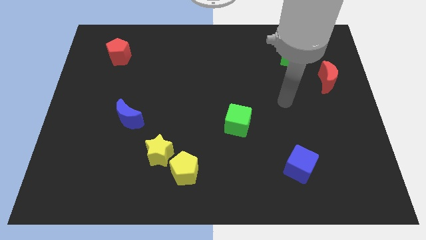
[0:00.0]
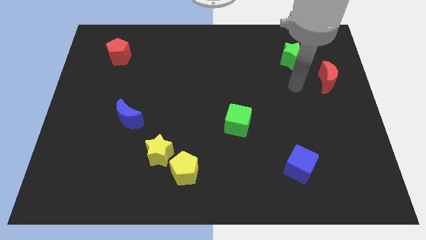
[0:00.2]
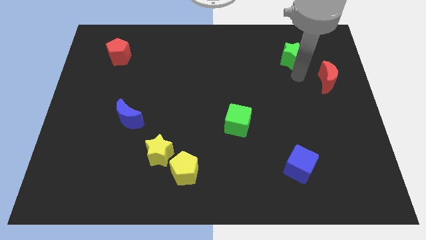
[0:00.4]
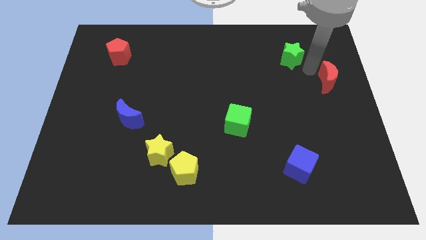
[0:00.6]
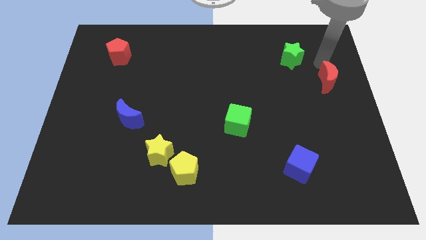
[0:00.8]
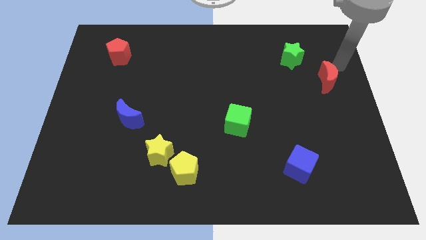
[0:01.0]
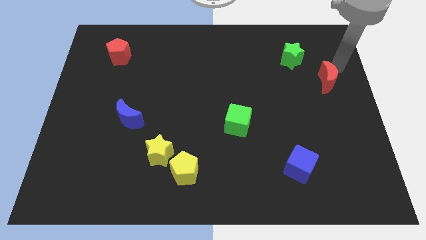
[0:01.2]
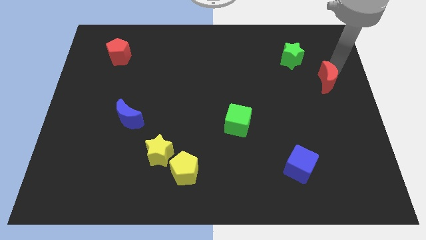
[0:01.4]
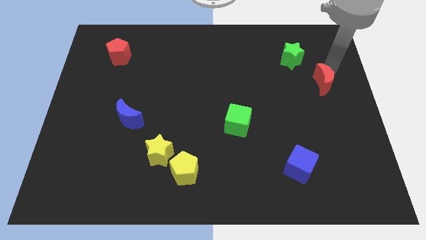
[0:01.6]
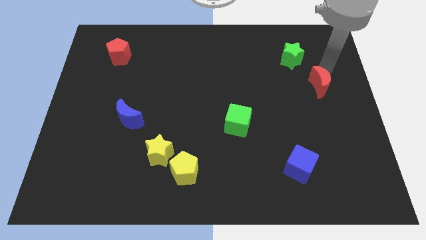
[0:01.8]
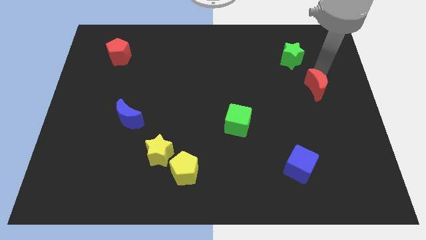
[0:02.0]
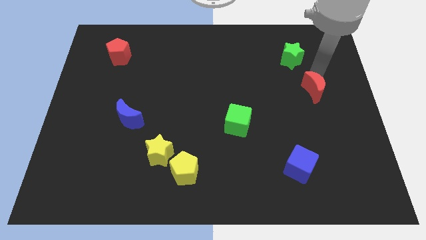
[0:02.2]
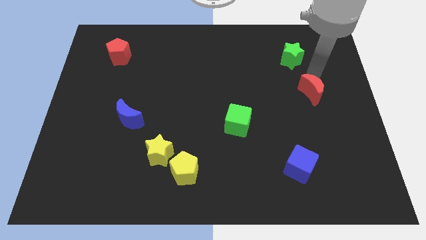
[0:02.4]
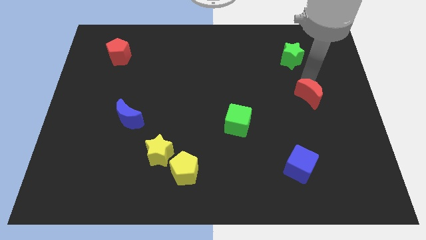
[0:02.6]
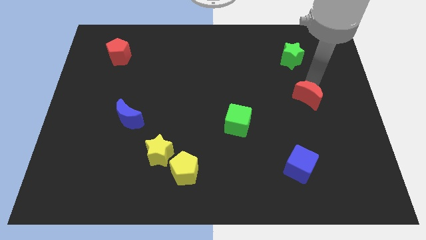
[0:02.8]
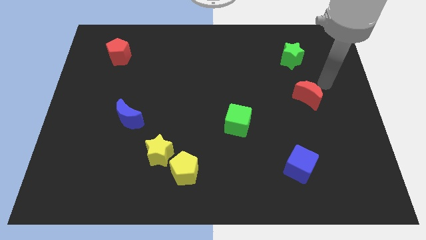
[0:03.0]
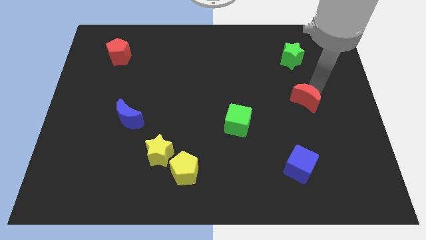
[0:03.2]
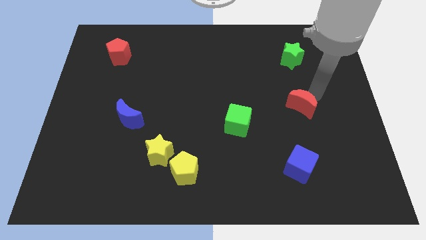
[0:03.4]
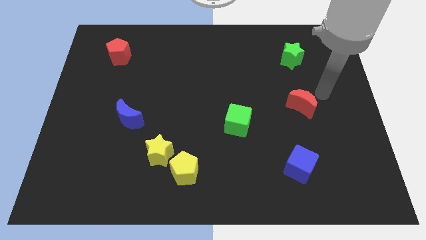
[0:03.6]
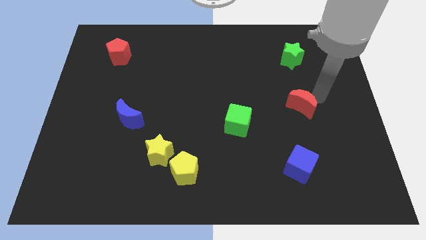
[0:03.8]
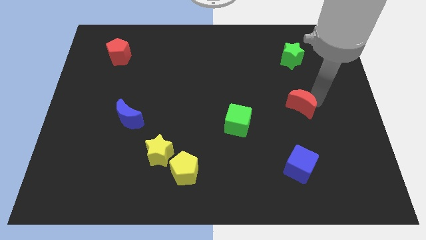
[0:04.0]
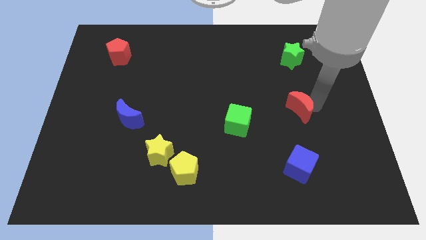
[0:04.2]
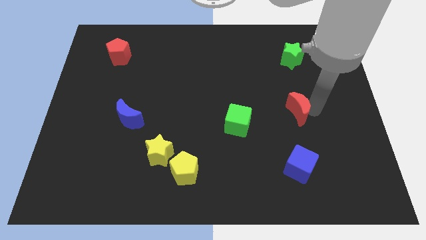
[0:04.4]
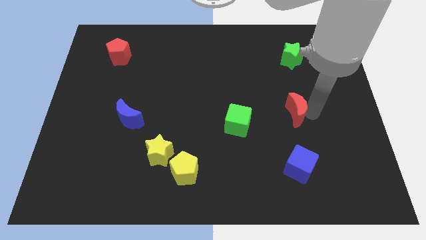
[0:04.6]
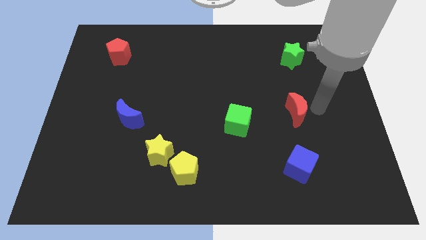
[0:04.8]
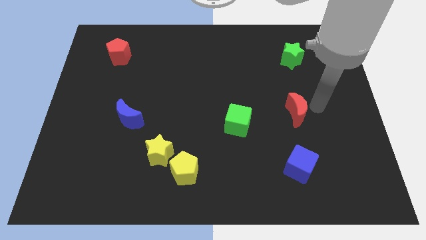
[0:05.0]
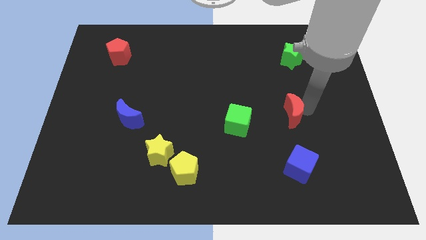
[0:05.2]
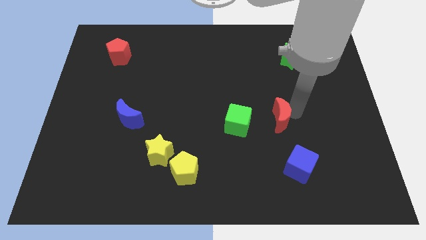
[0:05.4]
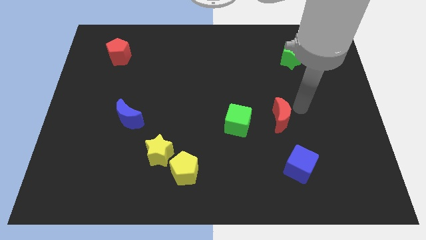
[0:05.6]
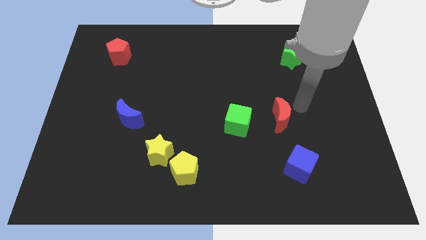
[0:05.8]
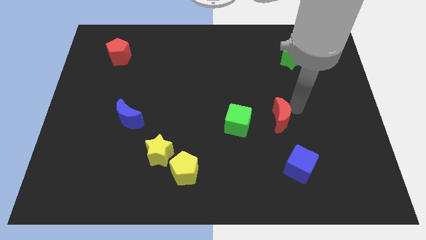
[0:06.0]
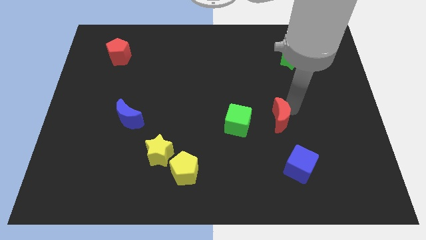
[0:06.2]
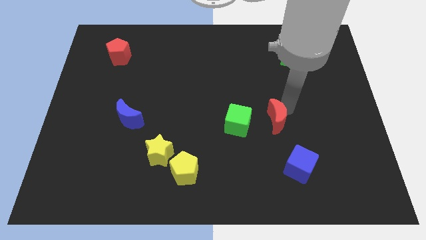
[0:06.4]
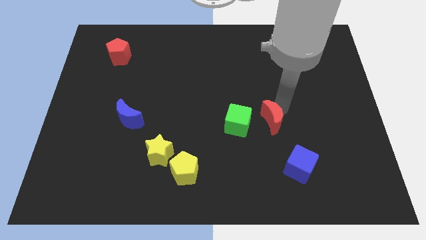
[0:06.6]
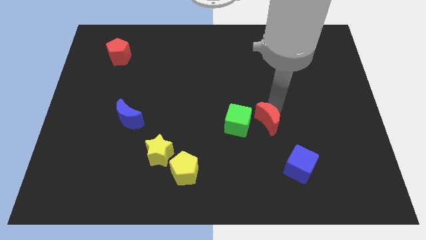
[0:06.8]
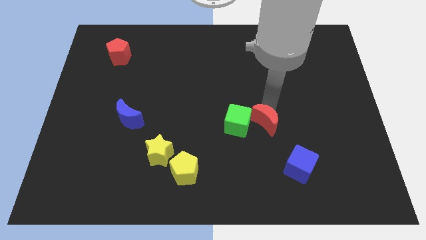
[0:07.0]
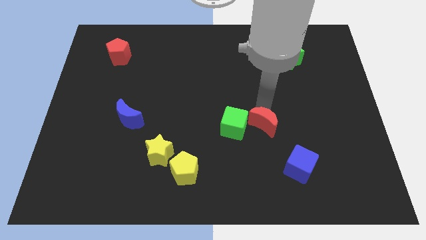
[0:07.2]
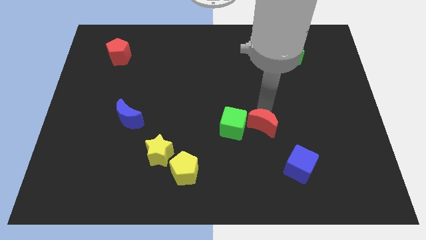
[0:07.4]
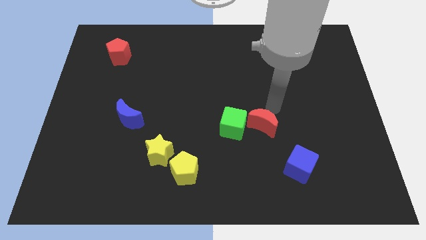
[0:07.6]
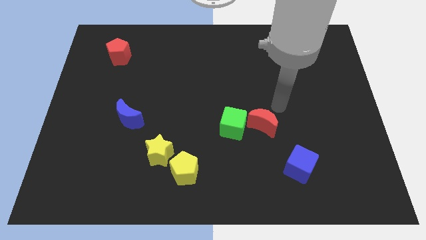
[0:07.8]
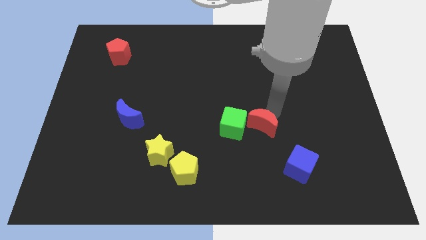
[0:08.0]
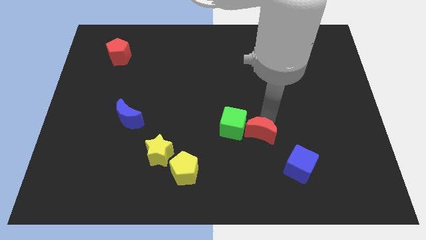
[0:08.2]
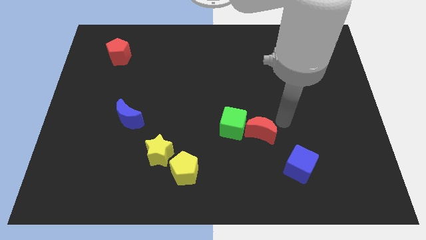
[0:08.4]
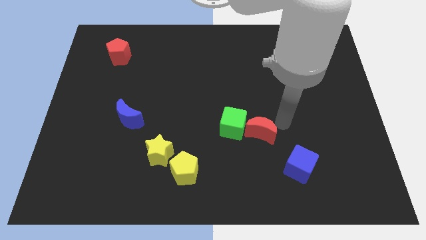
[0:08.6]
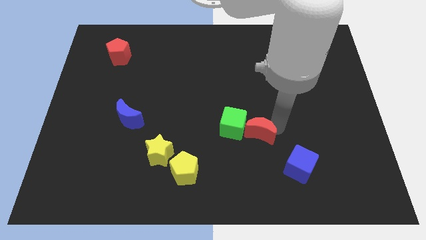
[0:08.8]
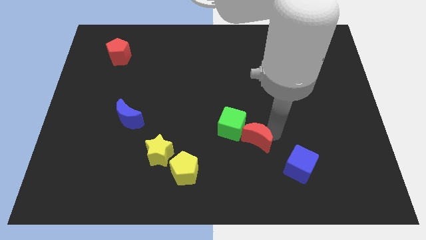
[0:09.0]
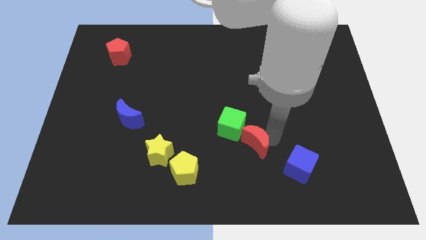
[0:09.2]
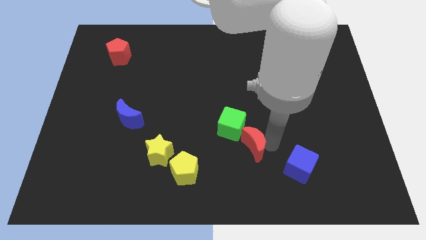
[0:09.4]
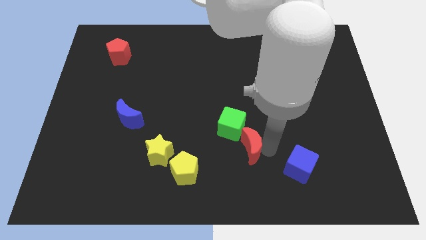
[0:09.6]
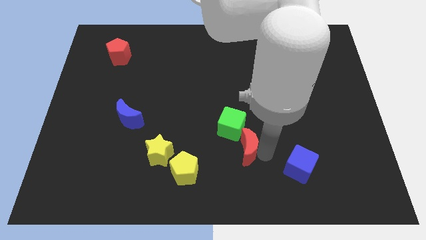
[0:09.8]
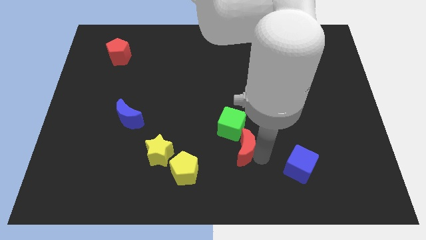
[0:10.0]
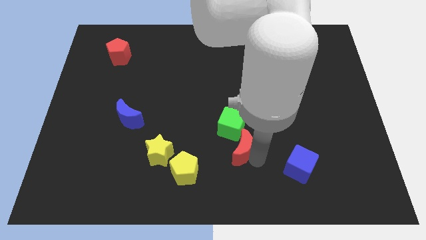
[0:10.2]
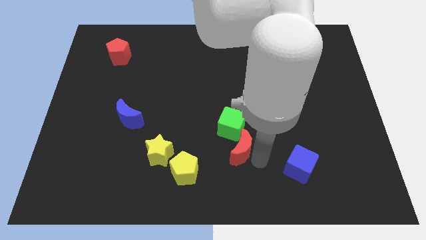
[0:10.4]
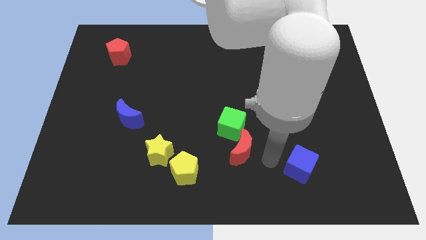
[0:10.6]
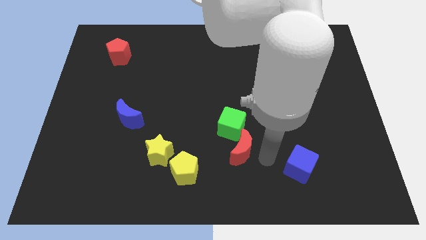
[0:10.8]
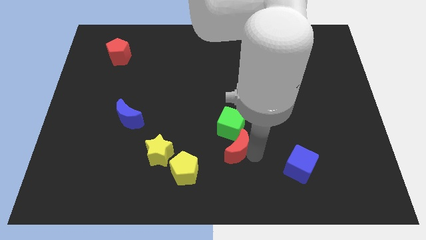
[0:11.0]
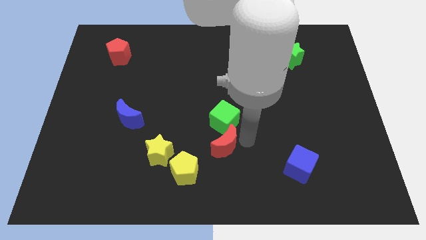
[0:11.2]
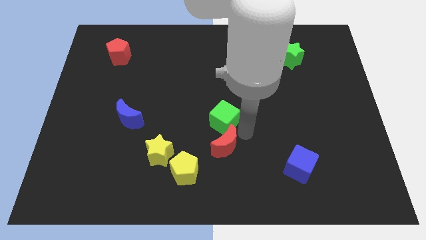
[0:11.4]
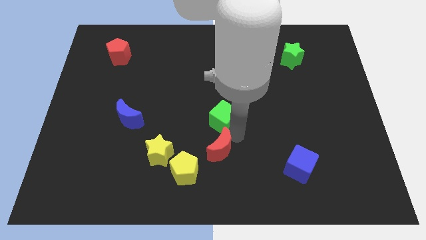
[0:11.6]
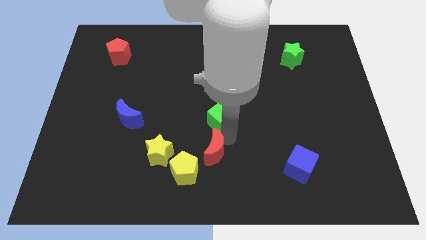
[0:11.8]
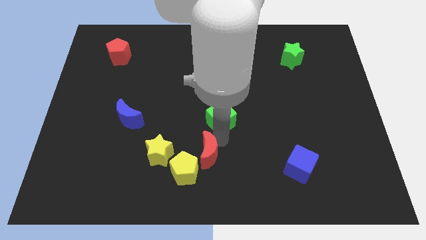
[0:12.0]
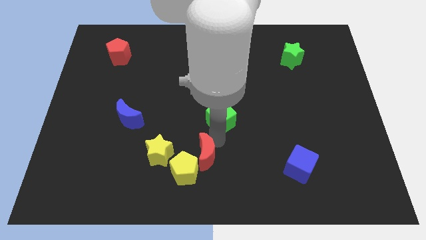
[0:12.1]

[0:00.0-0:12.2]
put the red moon close to the yellow pentagon

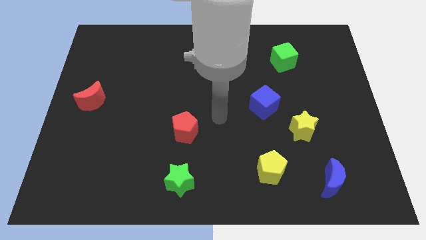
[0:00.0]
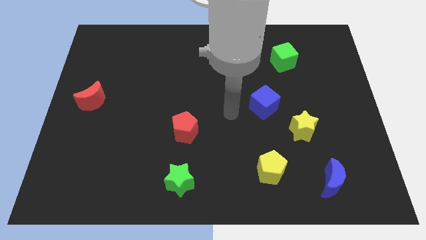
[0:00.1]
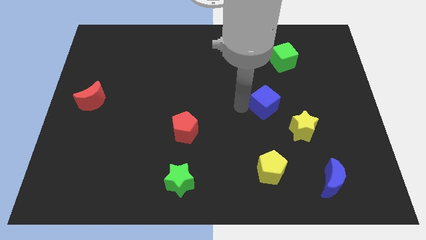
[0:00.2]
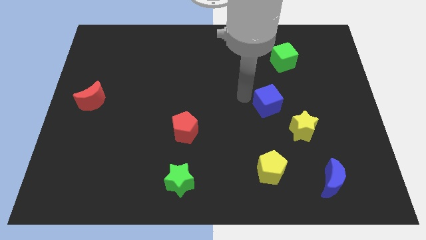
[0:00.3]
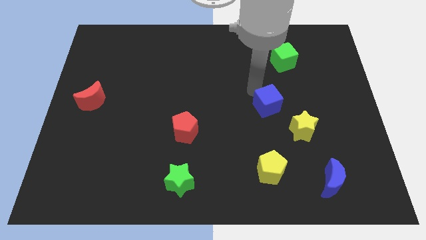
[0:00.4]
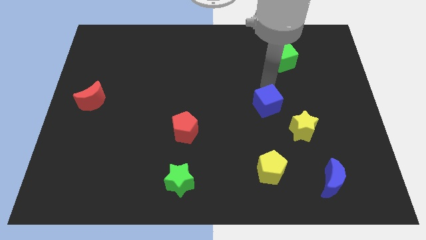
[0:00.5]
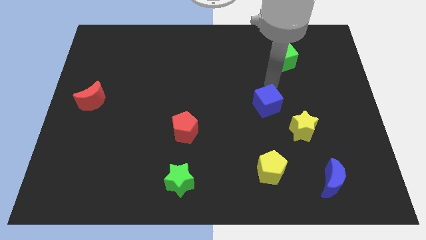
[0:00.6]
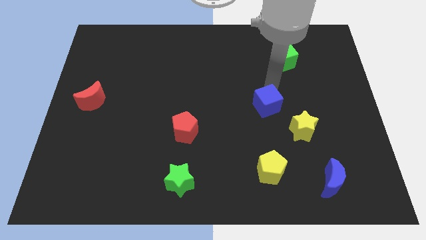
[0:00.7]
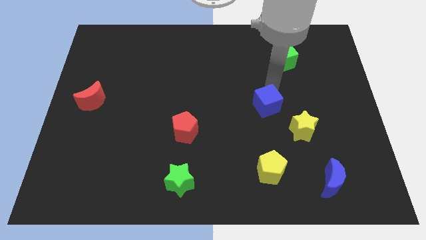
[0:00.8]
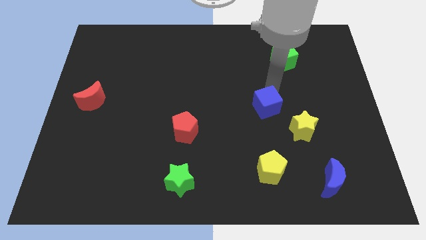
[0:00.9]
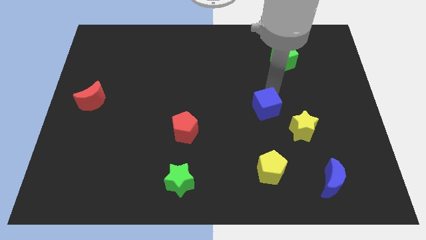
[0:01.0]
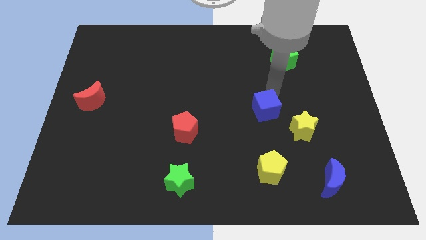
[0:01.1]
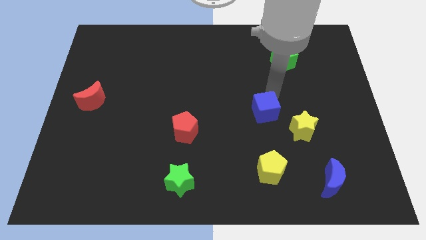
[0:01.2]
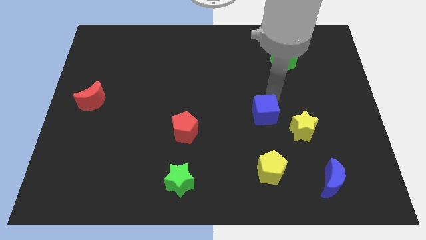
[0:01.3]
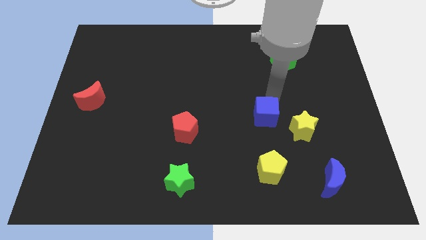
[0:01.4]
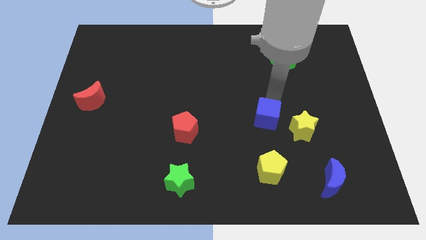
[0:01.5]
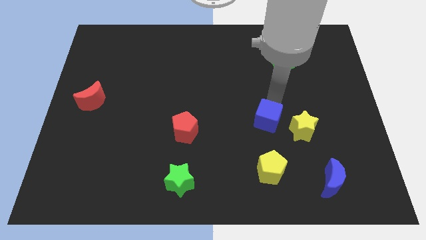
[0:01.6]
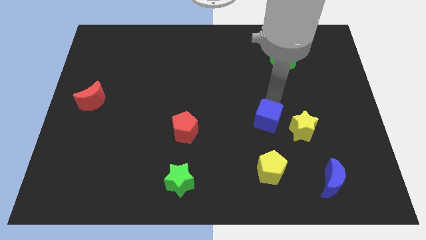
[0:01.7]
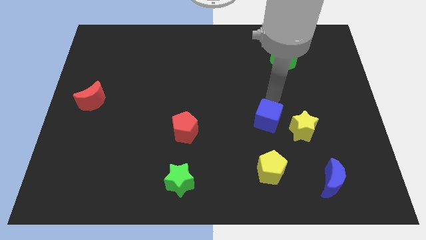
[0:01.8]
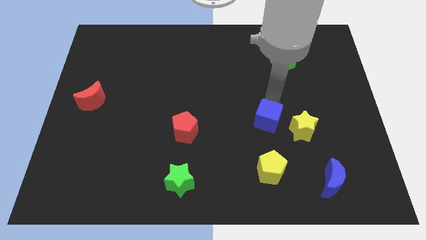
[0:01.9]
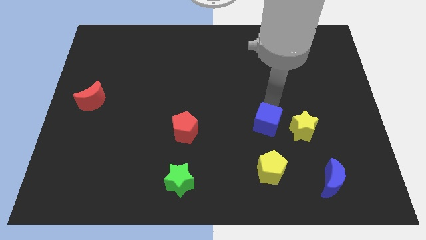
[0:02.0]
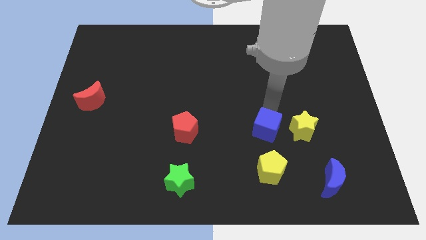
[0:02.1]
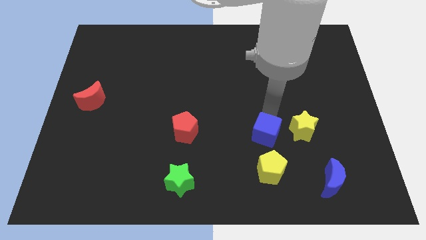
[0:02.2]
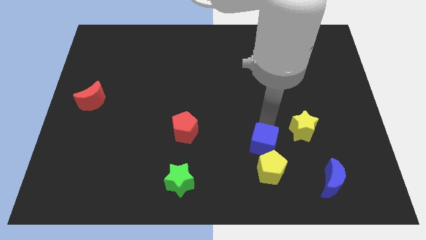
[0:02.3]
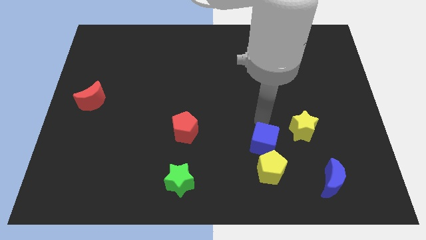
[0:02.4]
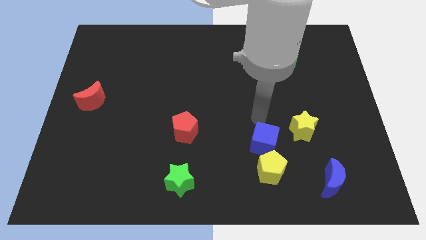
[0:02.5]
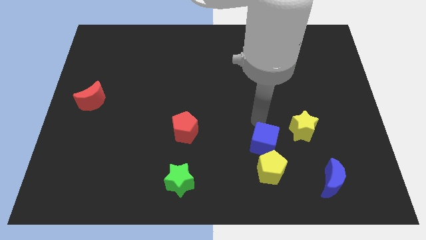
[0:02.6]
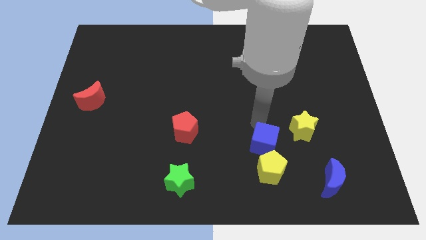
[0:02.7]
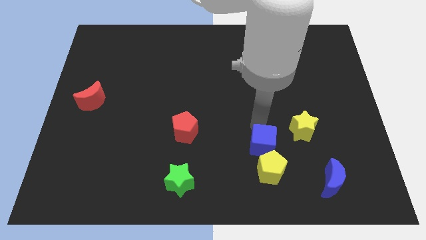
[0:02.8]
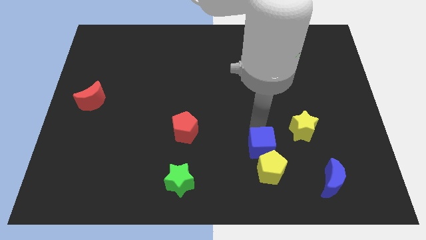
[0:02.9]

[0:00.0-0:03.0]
slide the blue cube to the yellow pentagon
